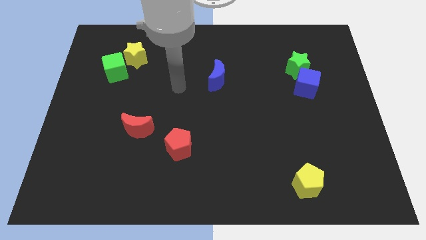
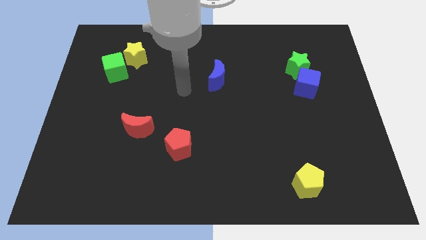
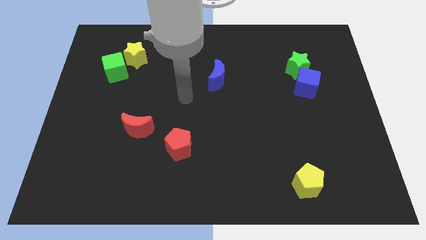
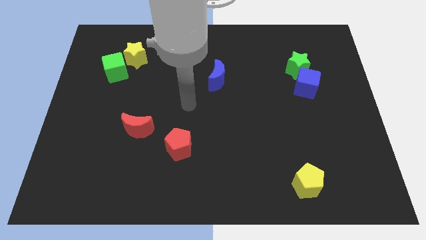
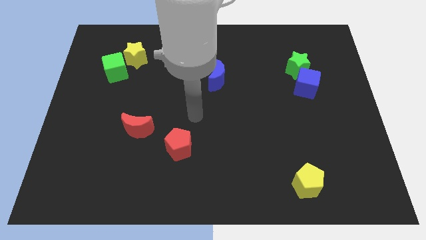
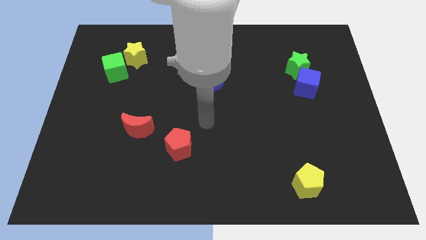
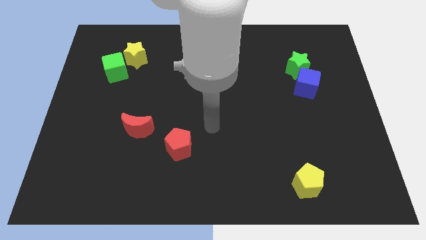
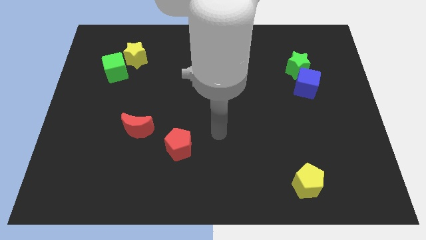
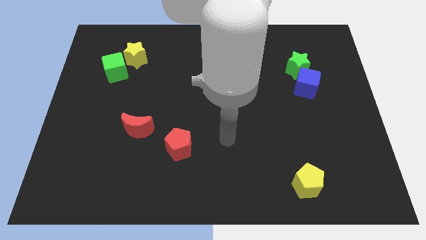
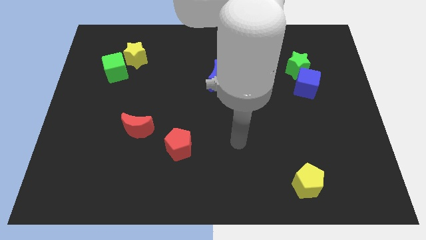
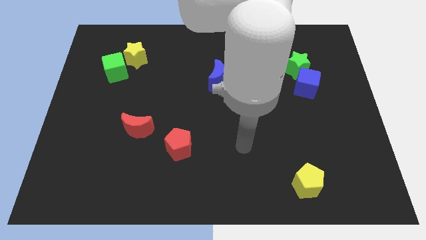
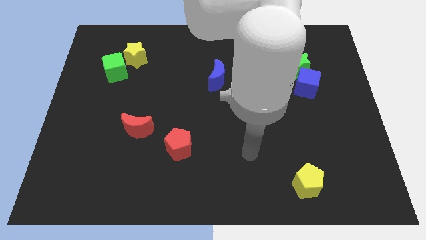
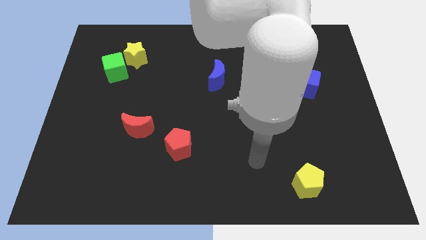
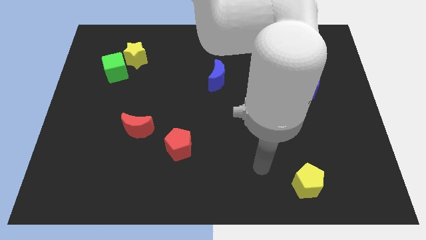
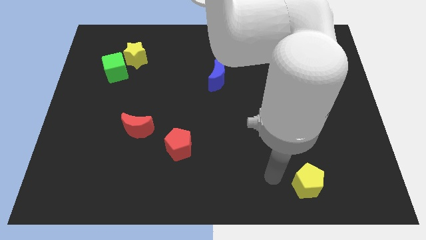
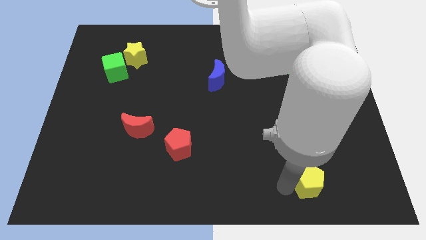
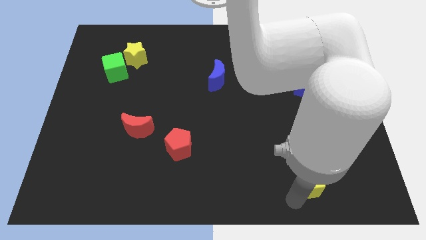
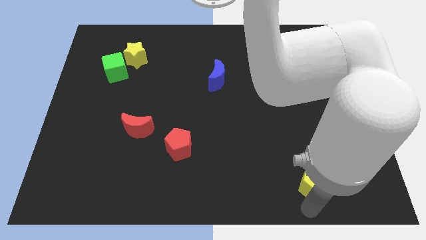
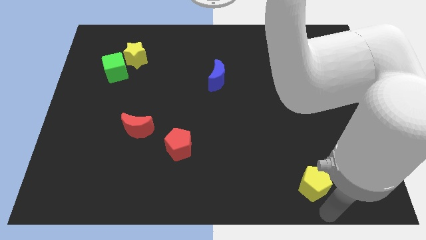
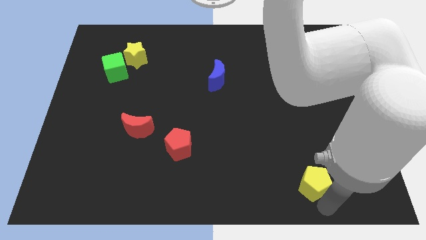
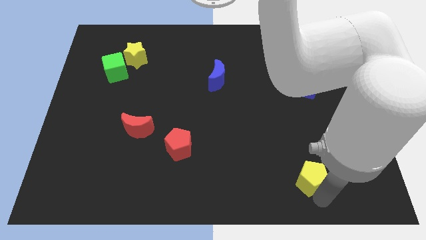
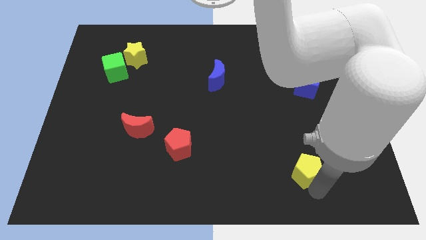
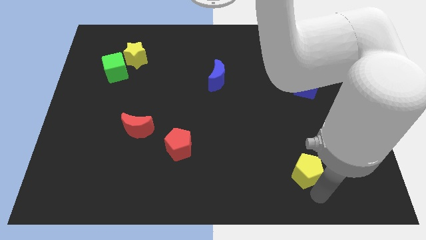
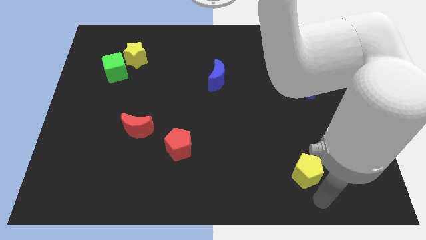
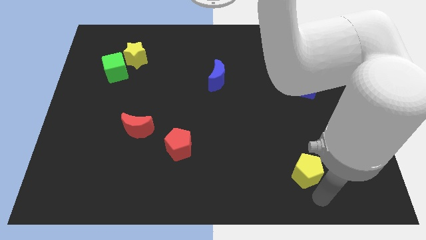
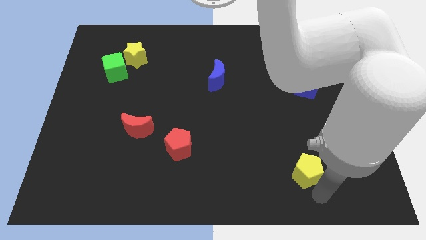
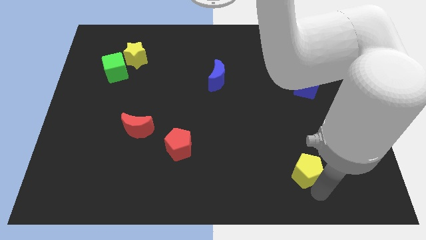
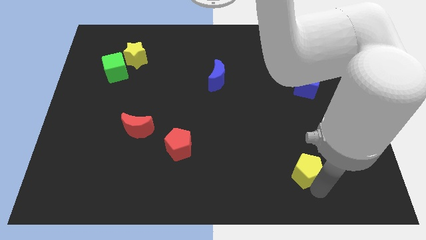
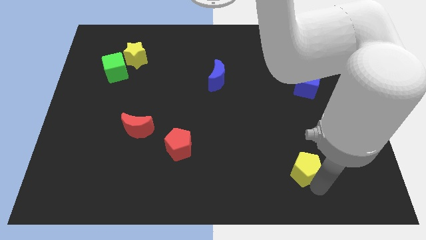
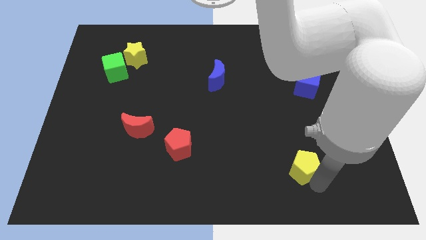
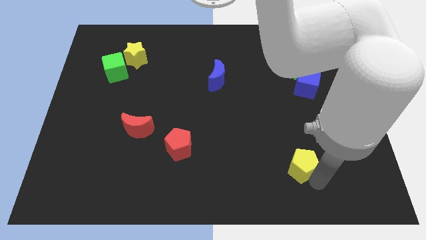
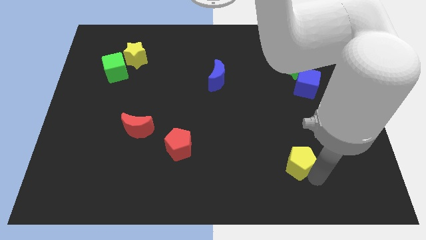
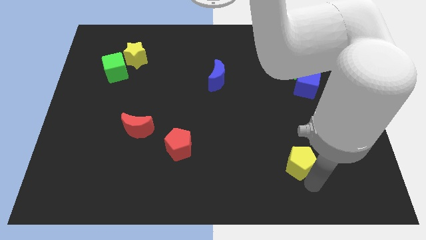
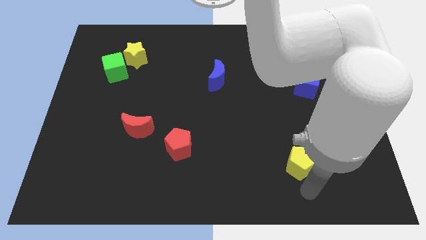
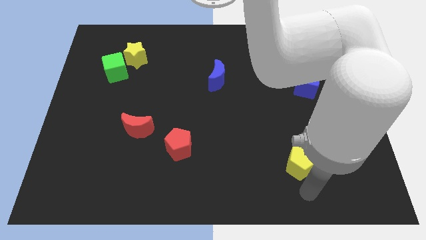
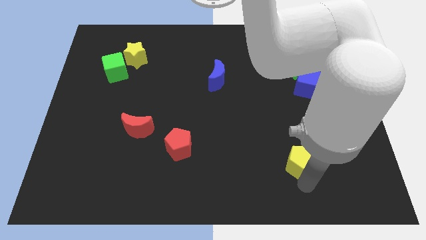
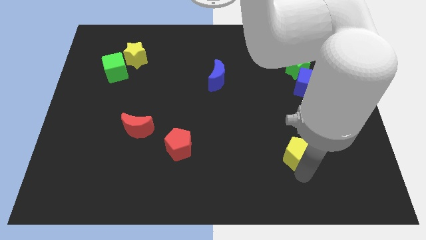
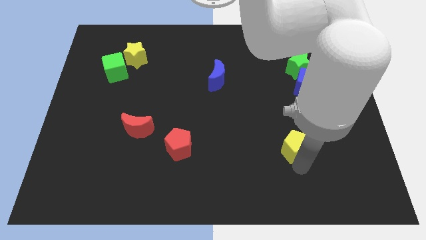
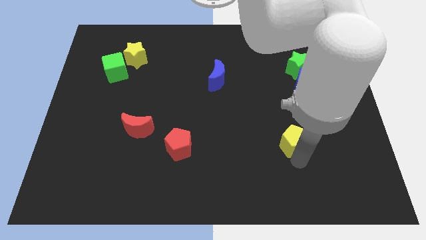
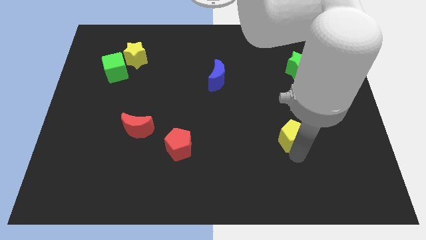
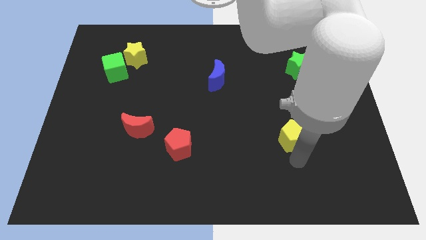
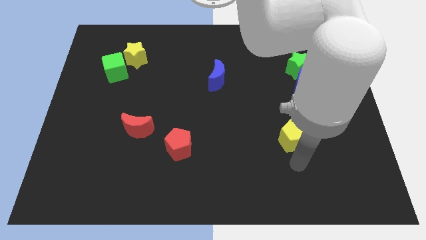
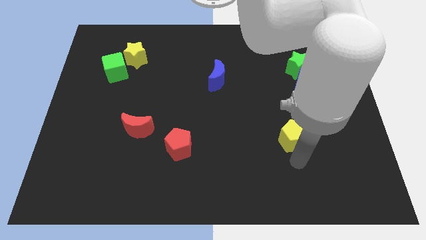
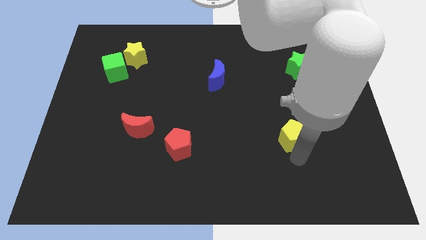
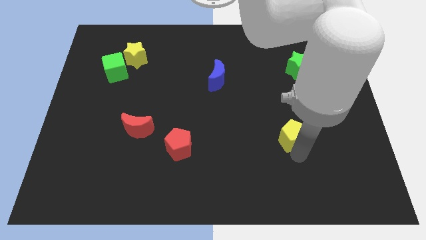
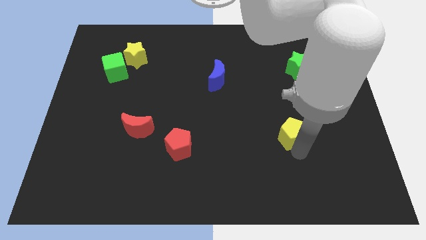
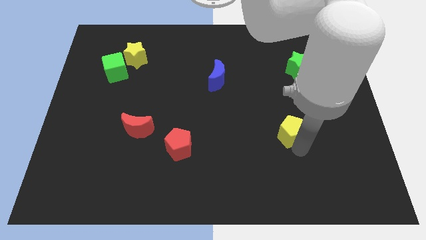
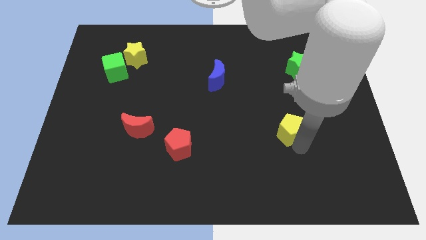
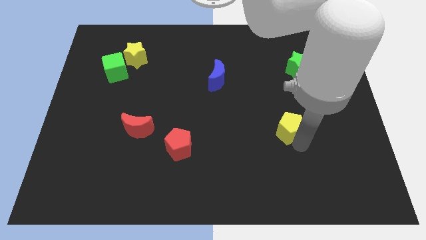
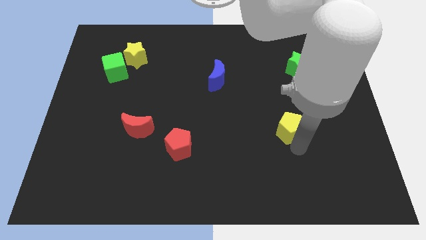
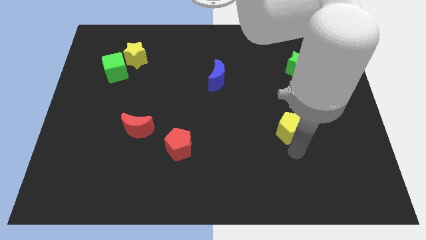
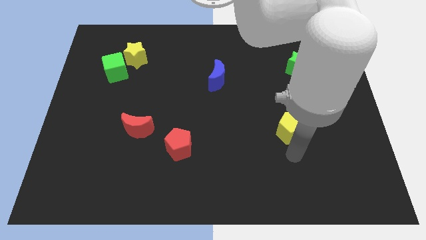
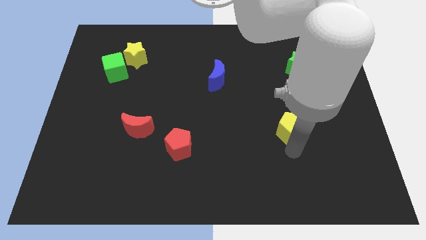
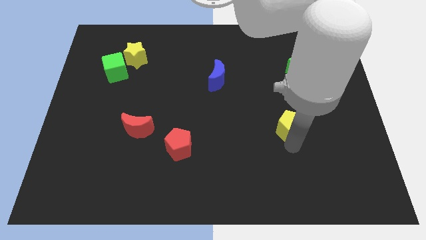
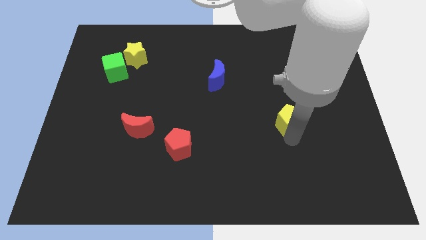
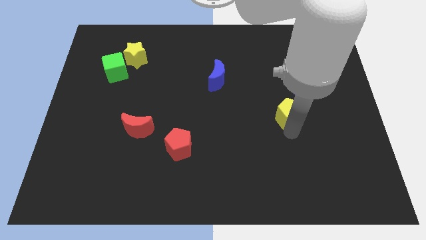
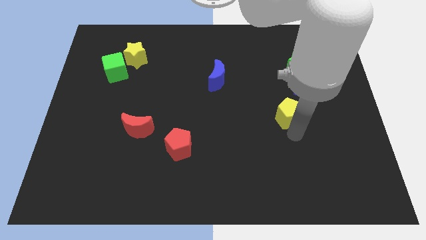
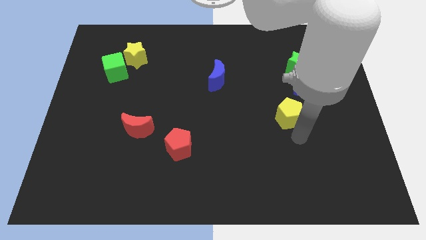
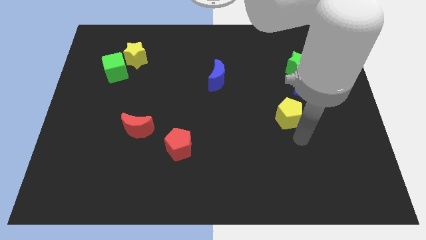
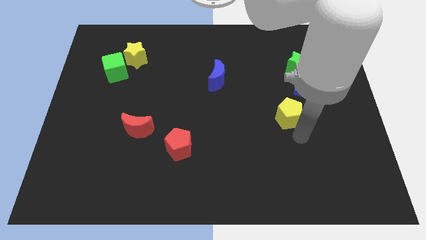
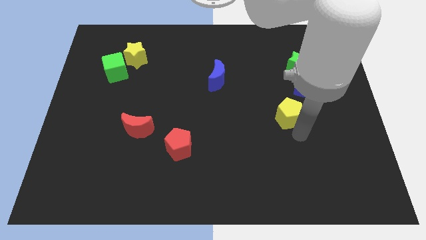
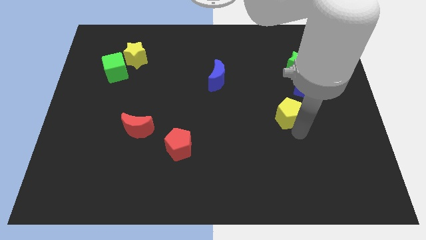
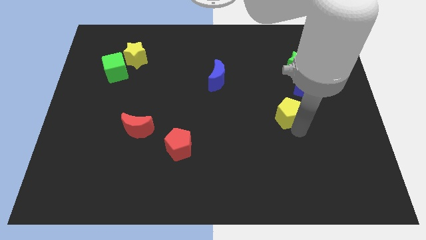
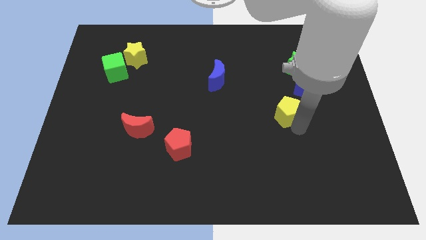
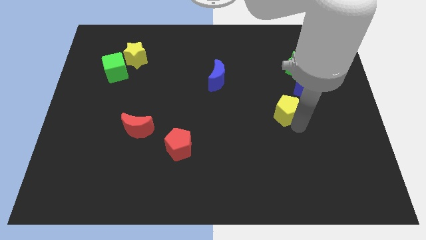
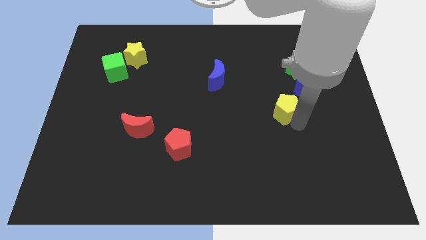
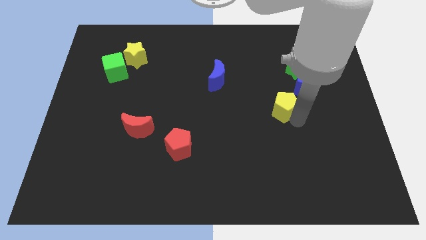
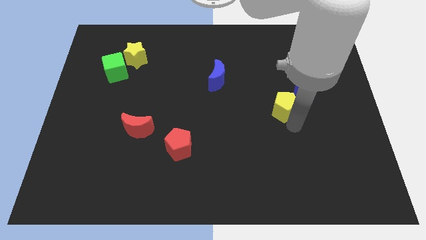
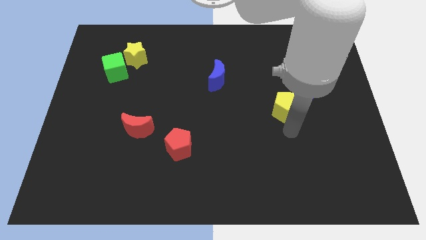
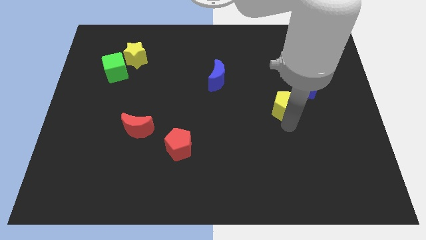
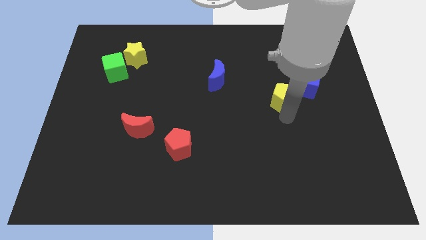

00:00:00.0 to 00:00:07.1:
put the yellow pentagon to the bottom left of the green star
